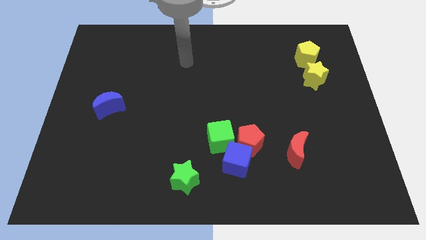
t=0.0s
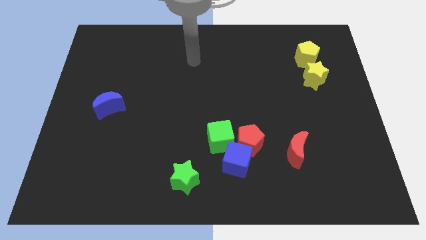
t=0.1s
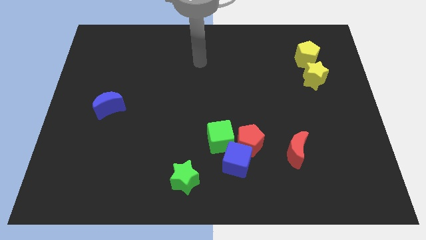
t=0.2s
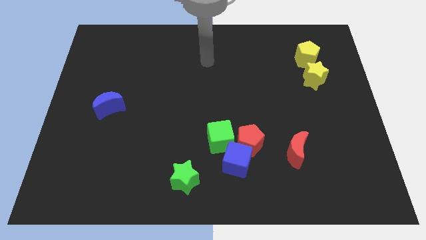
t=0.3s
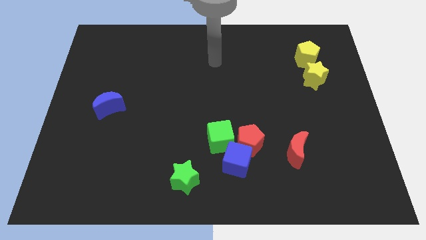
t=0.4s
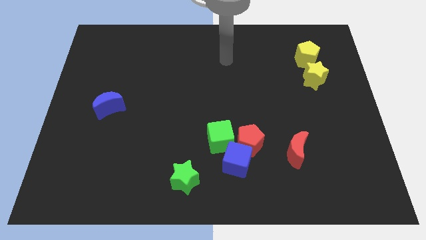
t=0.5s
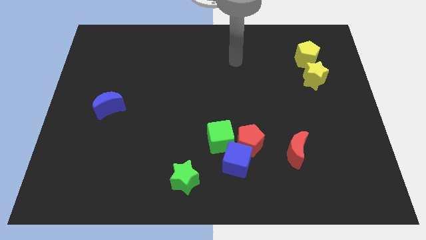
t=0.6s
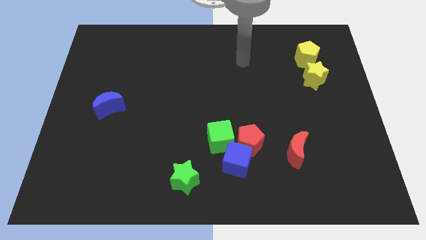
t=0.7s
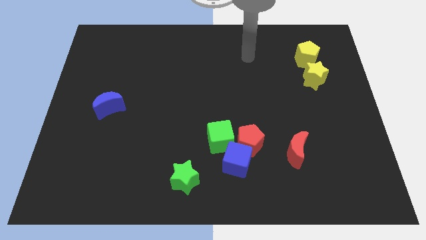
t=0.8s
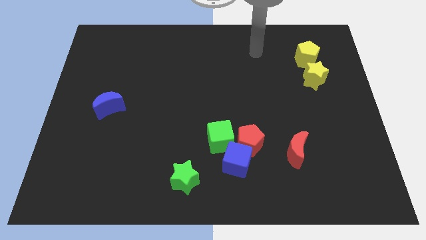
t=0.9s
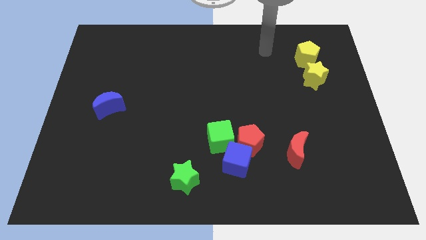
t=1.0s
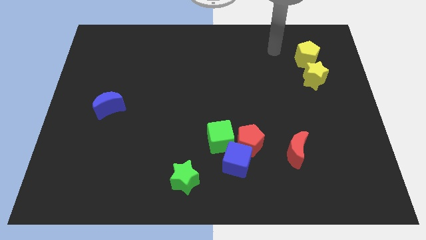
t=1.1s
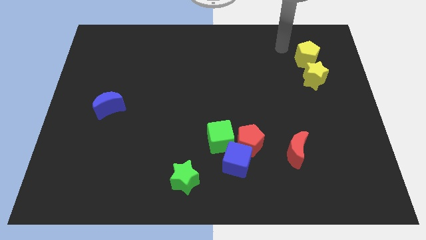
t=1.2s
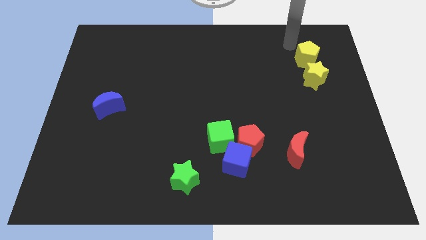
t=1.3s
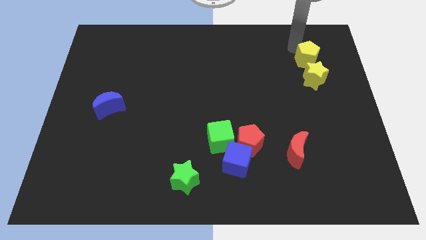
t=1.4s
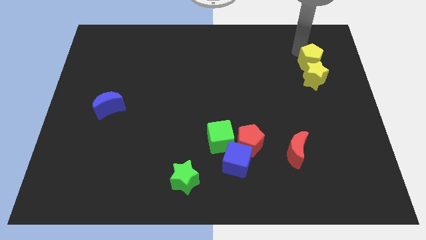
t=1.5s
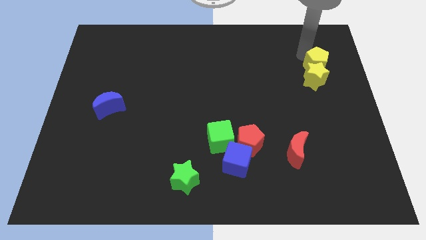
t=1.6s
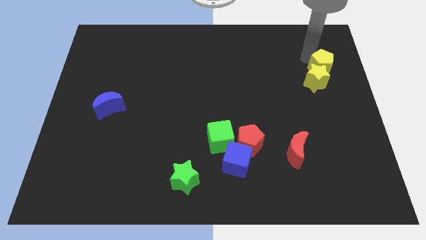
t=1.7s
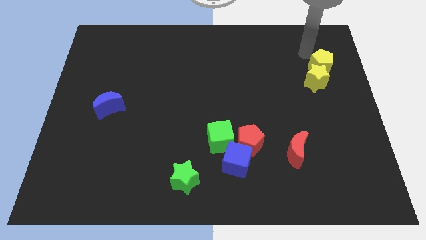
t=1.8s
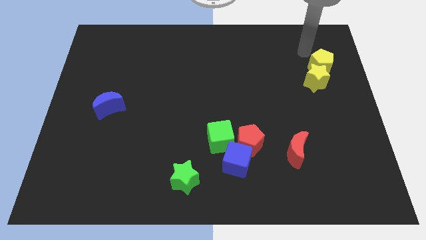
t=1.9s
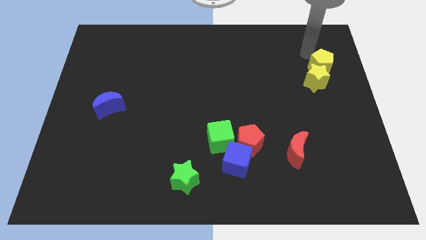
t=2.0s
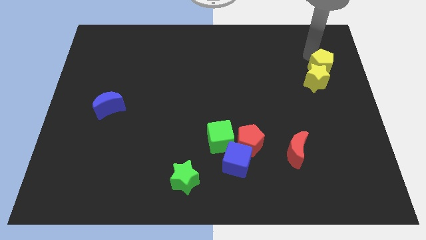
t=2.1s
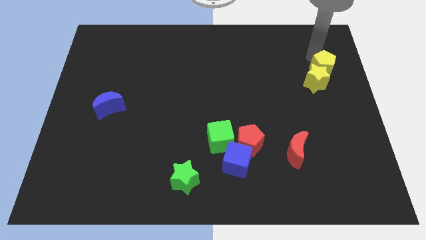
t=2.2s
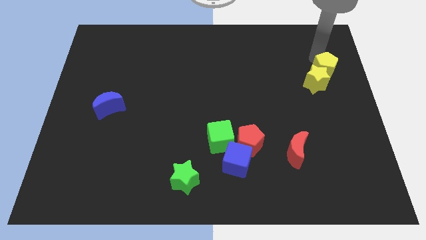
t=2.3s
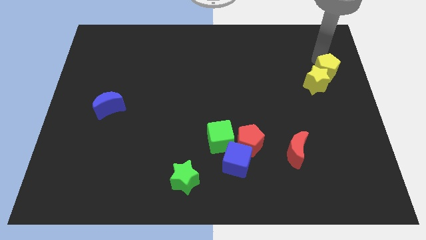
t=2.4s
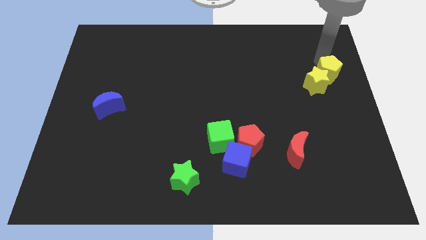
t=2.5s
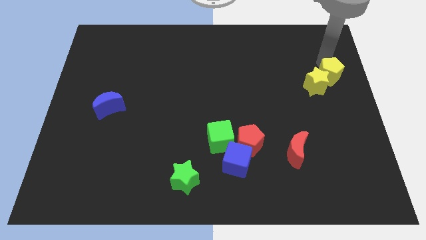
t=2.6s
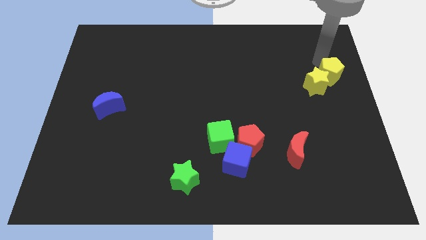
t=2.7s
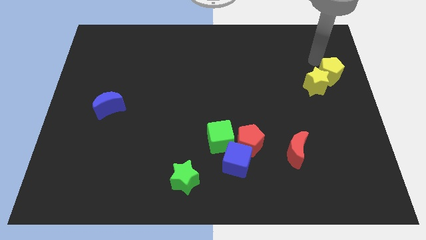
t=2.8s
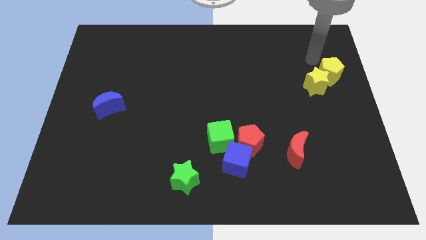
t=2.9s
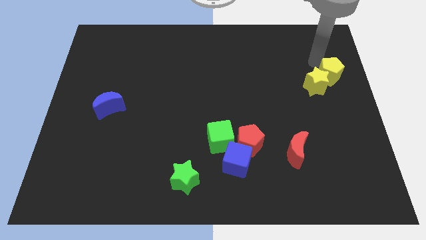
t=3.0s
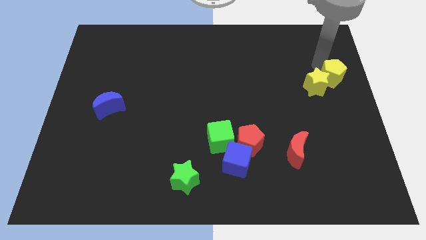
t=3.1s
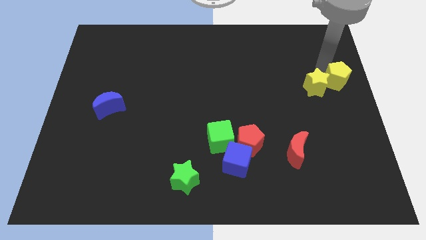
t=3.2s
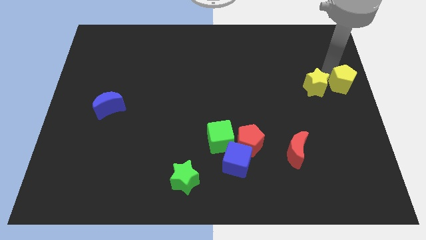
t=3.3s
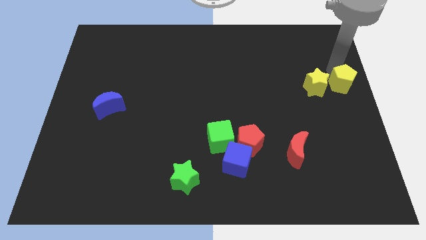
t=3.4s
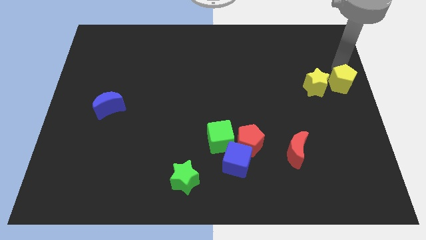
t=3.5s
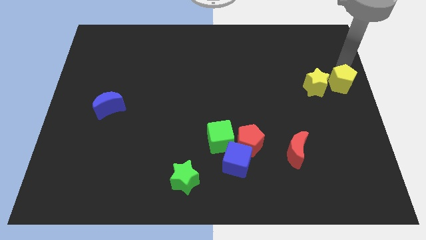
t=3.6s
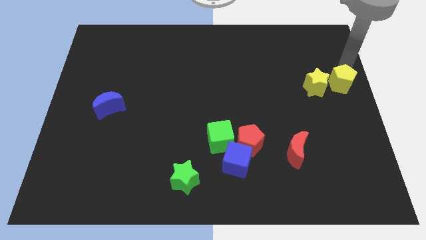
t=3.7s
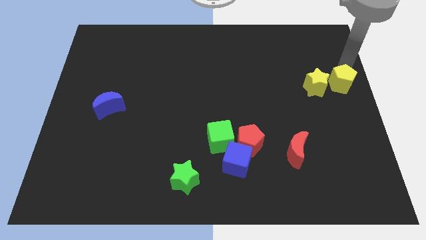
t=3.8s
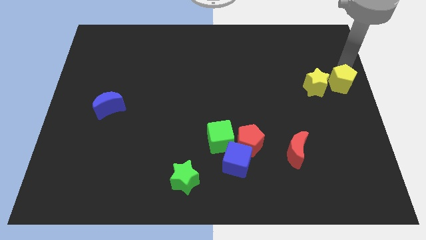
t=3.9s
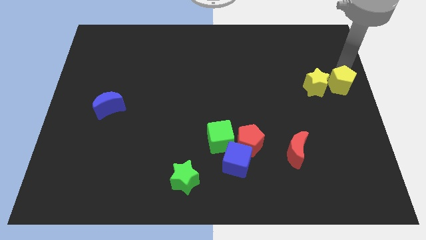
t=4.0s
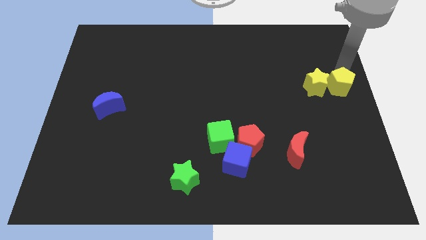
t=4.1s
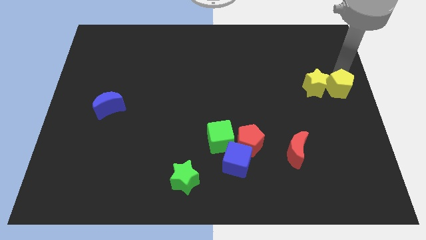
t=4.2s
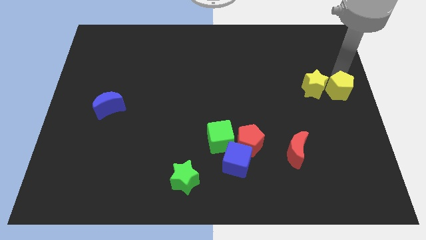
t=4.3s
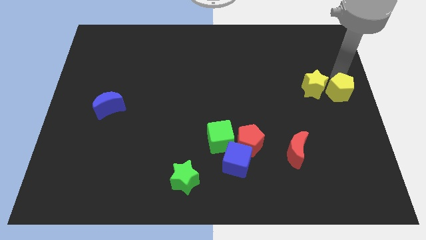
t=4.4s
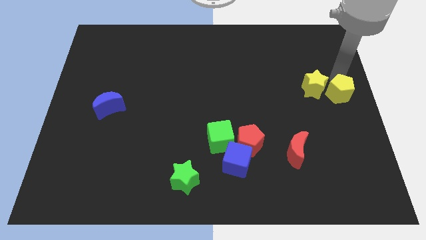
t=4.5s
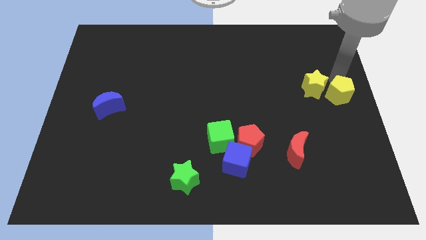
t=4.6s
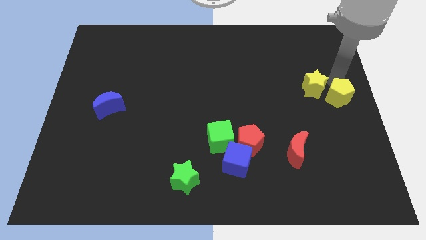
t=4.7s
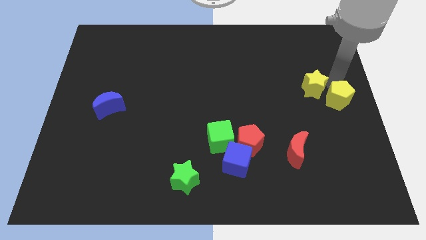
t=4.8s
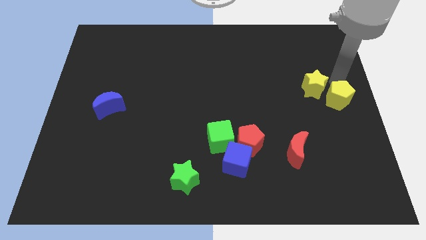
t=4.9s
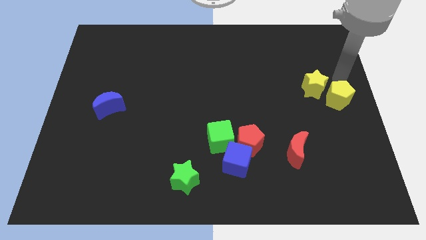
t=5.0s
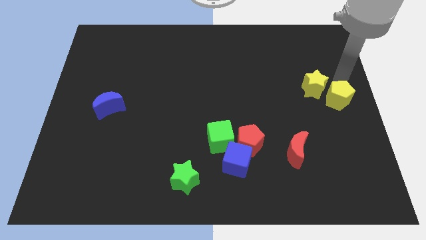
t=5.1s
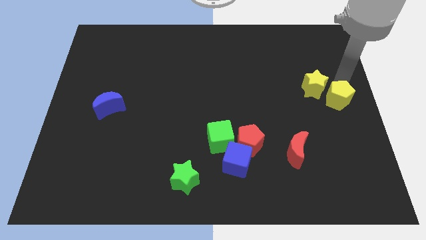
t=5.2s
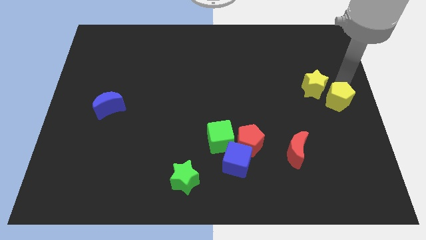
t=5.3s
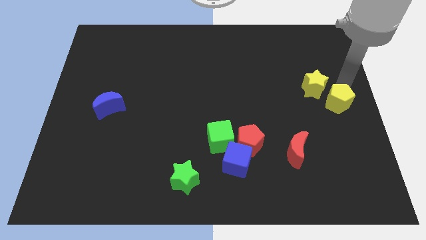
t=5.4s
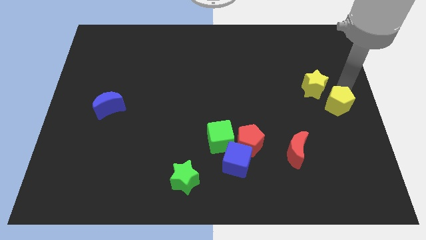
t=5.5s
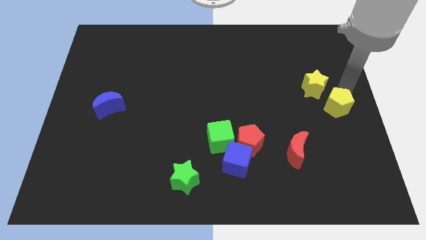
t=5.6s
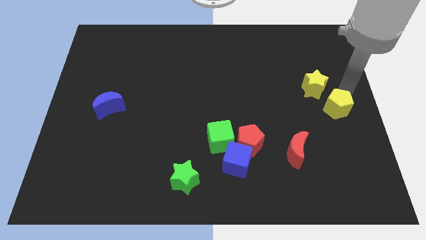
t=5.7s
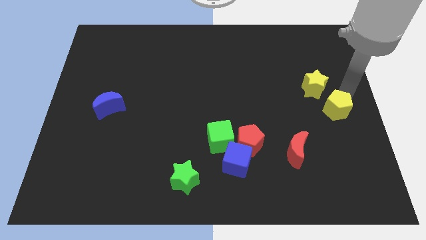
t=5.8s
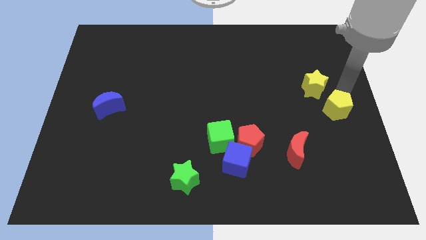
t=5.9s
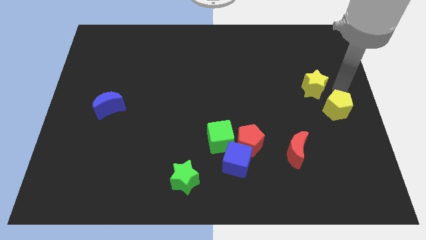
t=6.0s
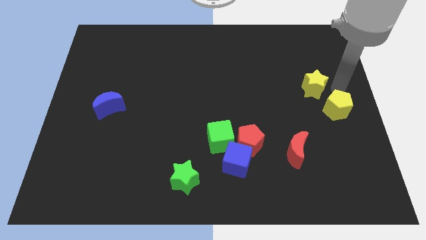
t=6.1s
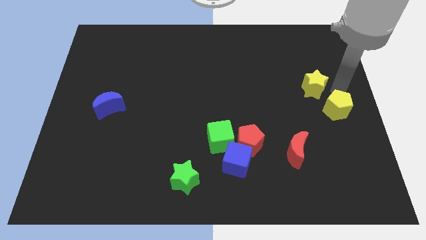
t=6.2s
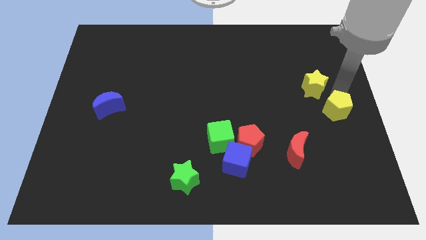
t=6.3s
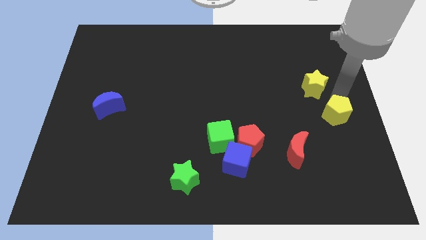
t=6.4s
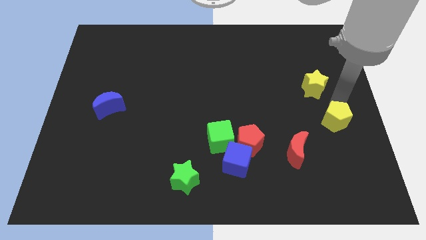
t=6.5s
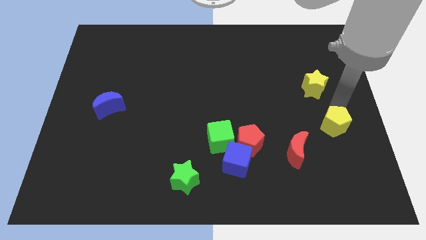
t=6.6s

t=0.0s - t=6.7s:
move the yellow pentagon down

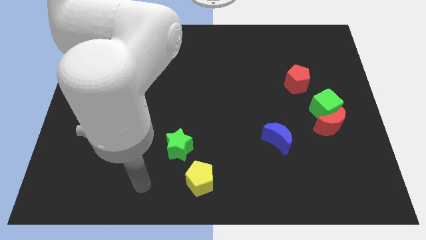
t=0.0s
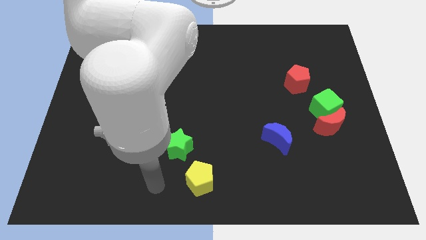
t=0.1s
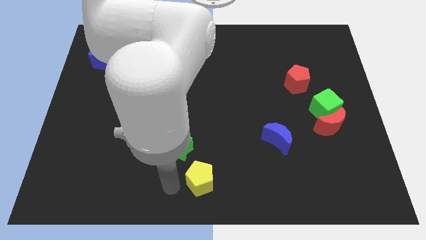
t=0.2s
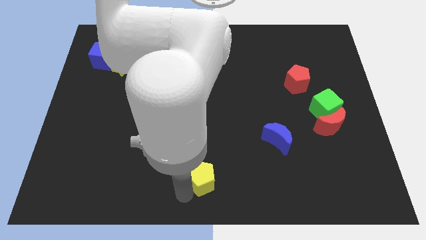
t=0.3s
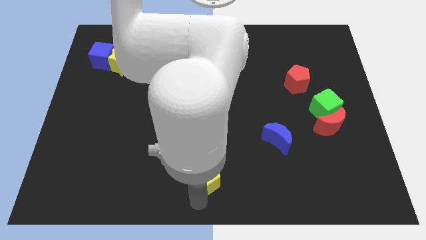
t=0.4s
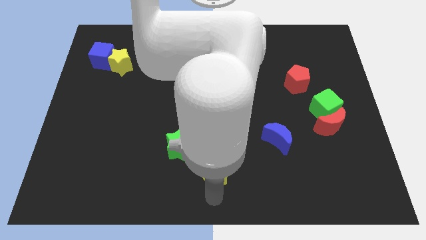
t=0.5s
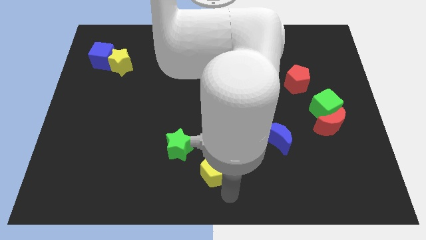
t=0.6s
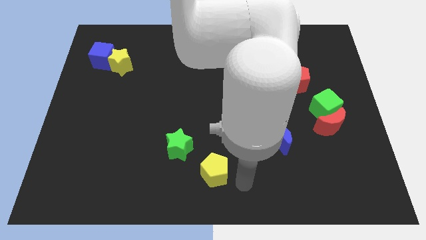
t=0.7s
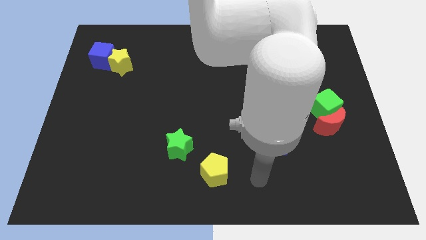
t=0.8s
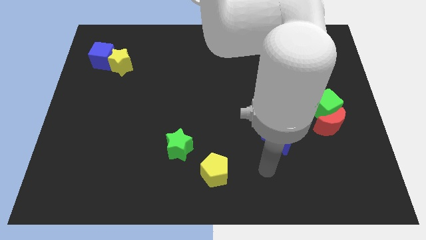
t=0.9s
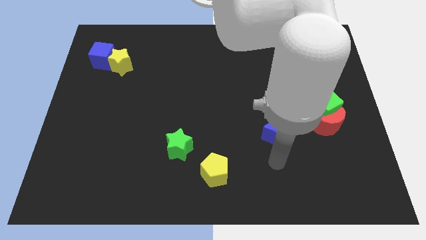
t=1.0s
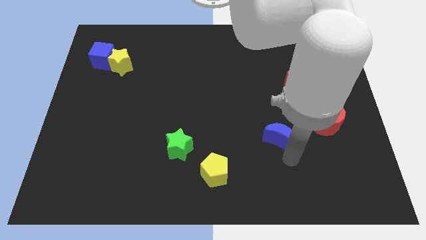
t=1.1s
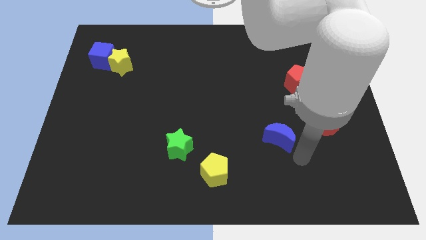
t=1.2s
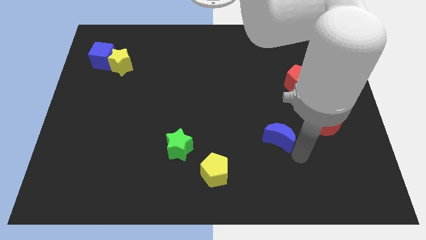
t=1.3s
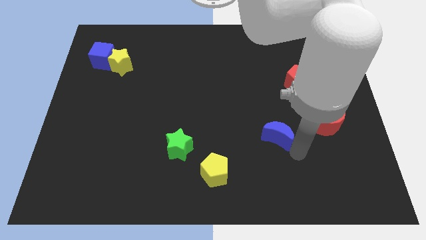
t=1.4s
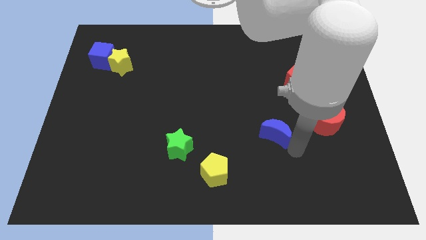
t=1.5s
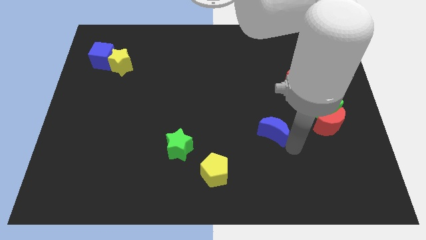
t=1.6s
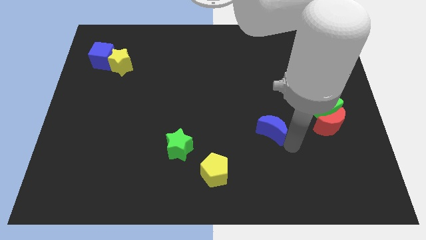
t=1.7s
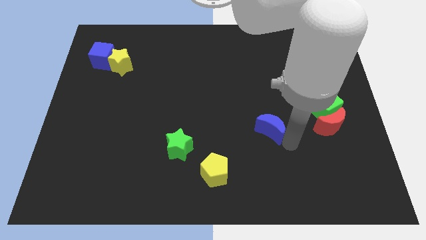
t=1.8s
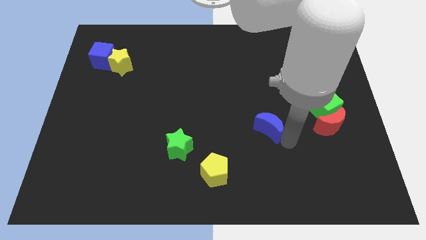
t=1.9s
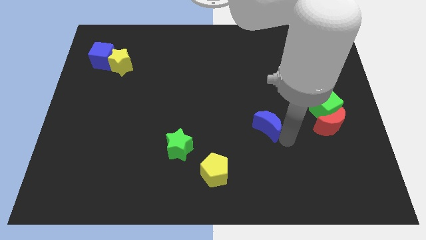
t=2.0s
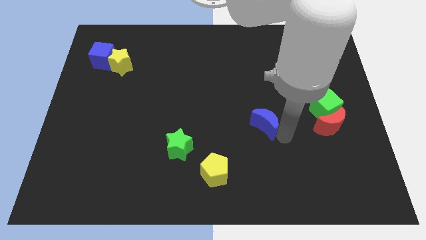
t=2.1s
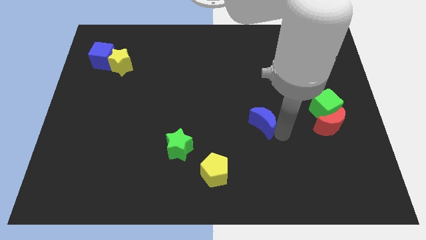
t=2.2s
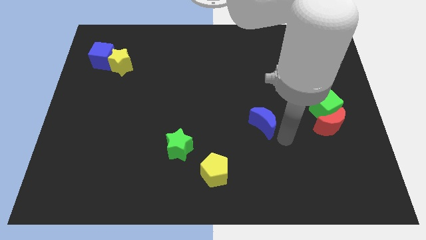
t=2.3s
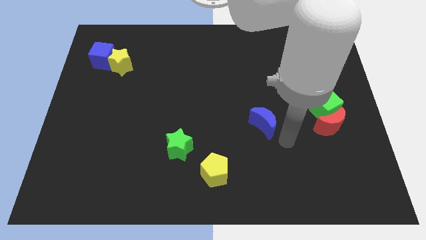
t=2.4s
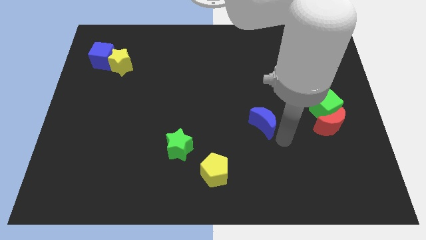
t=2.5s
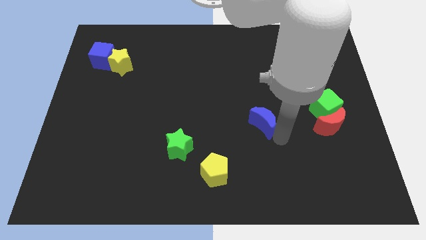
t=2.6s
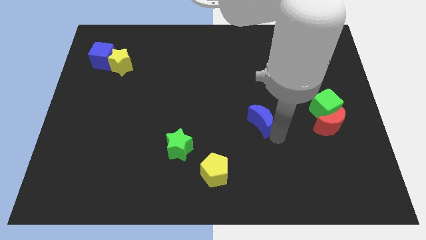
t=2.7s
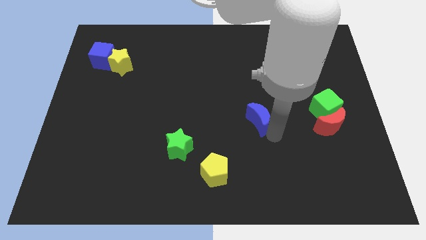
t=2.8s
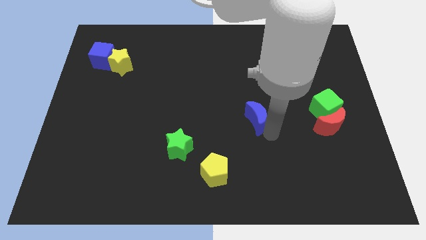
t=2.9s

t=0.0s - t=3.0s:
slide the blue moon somewhat diagonally upwards and left
